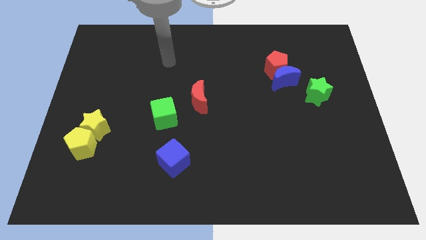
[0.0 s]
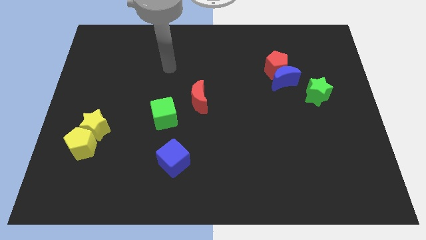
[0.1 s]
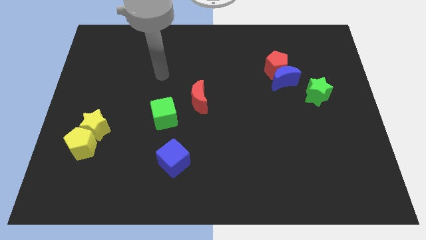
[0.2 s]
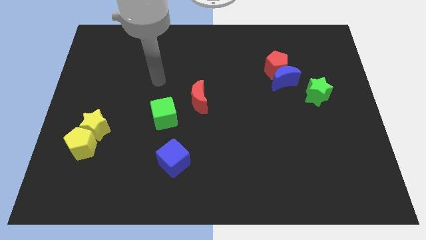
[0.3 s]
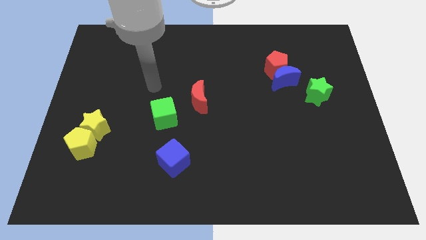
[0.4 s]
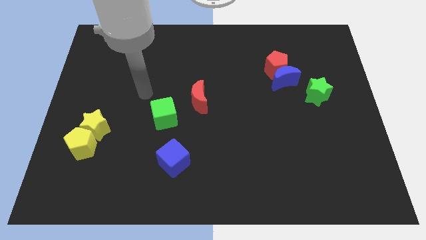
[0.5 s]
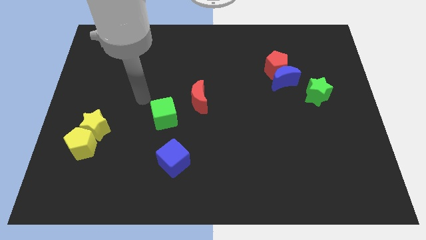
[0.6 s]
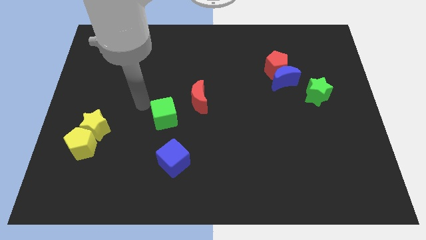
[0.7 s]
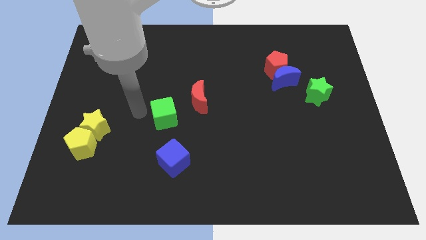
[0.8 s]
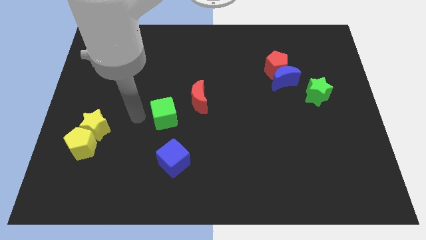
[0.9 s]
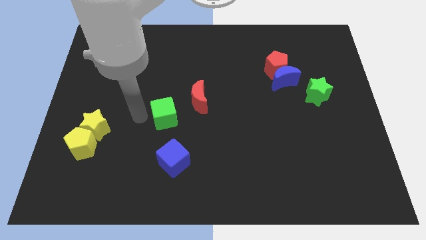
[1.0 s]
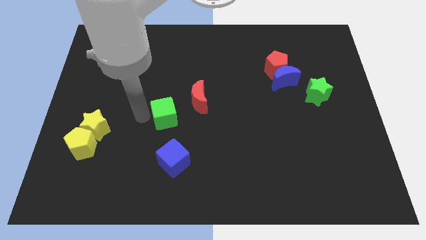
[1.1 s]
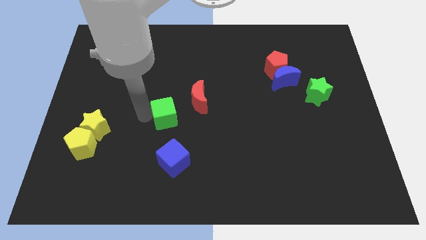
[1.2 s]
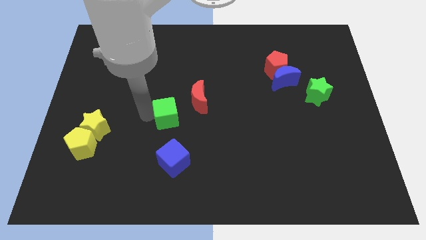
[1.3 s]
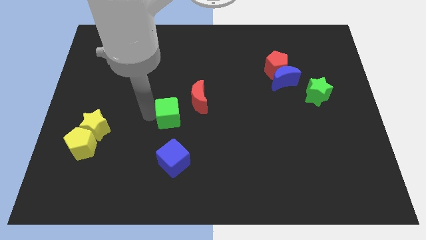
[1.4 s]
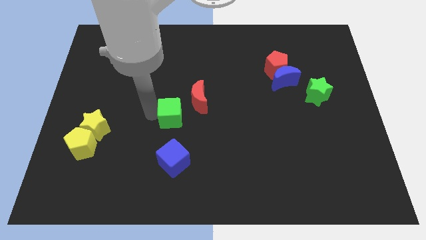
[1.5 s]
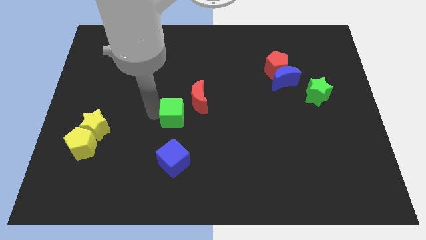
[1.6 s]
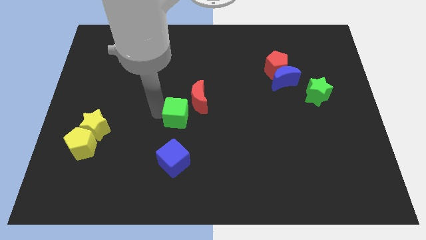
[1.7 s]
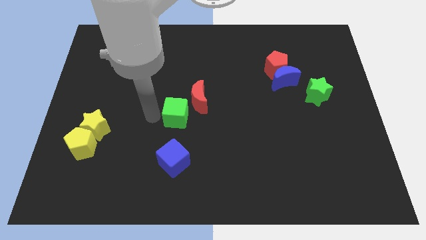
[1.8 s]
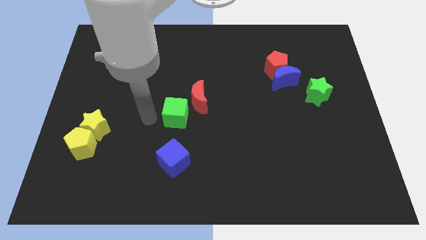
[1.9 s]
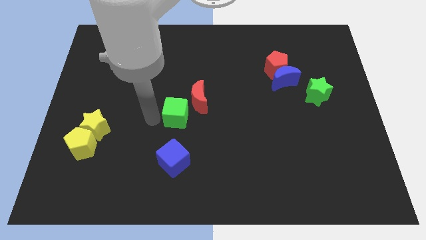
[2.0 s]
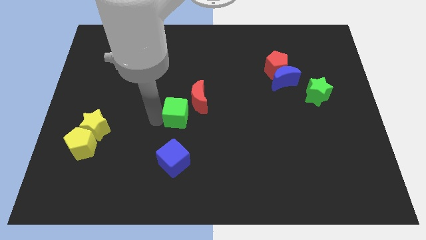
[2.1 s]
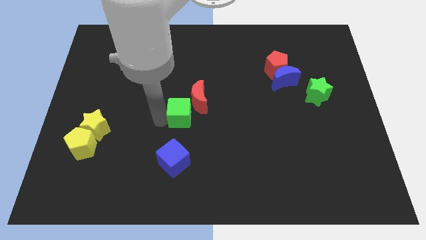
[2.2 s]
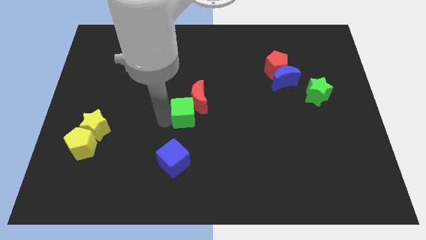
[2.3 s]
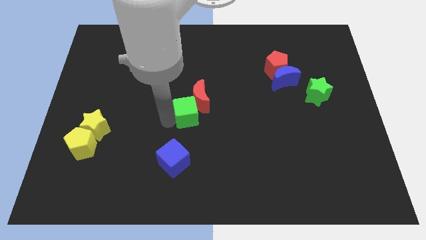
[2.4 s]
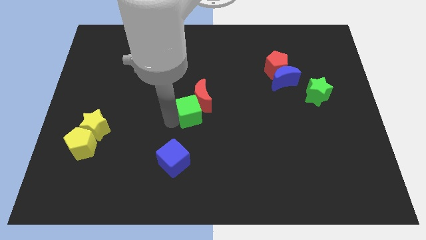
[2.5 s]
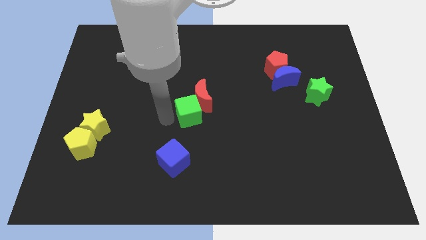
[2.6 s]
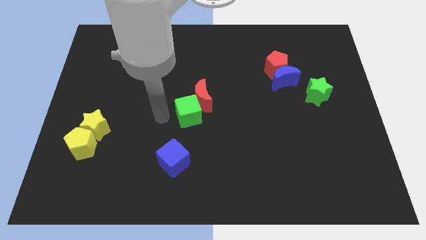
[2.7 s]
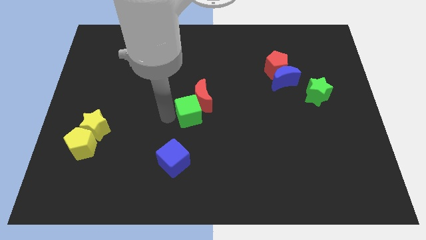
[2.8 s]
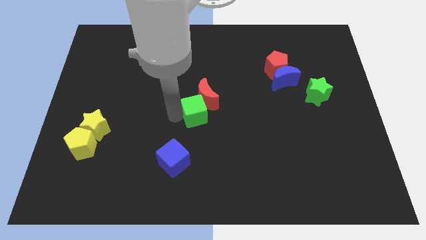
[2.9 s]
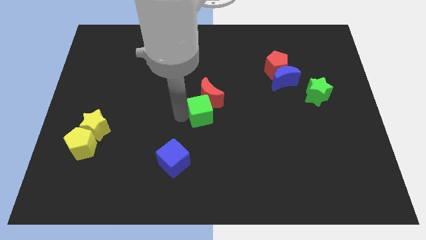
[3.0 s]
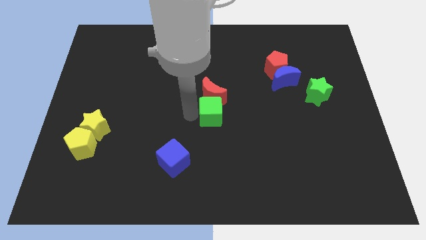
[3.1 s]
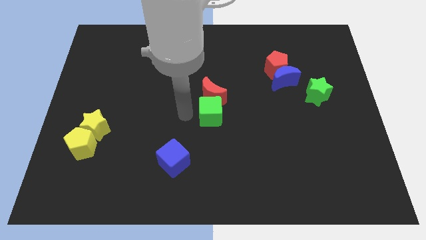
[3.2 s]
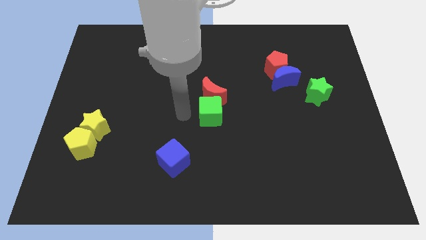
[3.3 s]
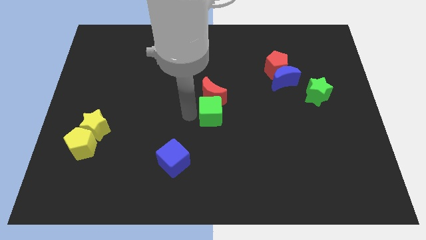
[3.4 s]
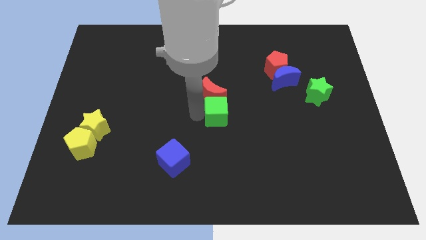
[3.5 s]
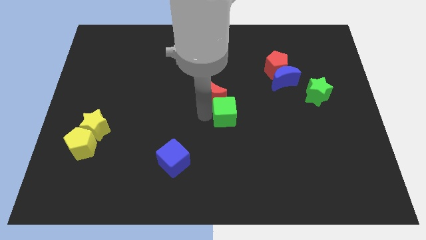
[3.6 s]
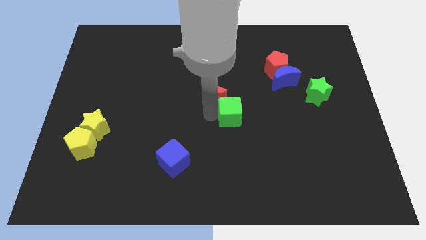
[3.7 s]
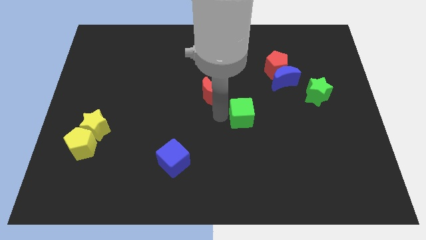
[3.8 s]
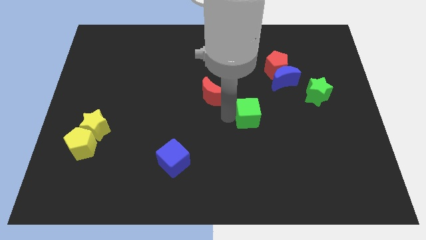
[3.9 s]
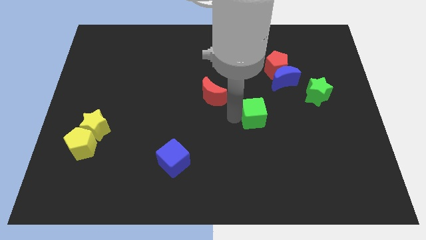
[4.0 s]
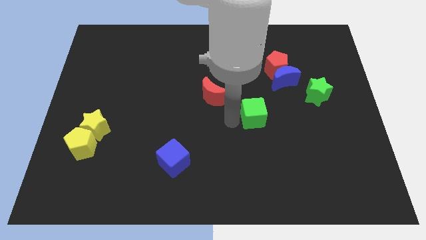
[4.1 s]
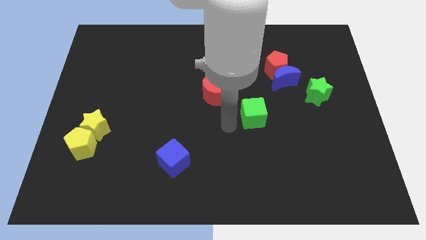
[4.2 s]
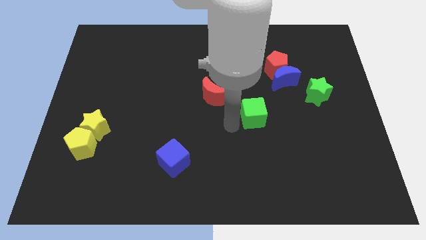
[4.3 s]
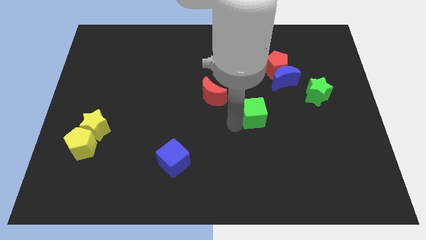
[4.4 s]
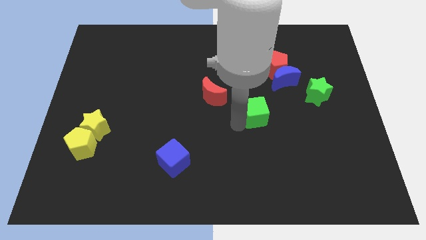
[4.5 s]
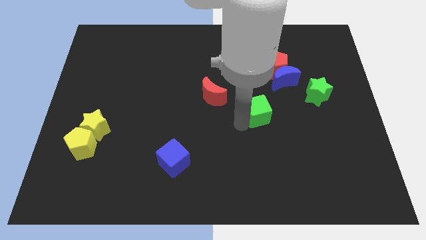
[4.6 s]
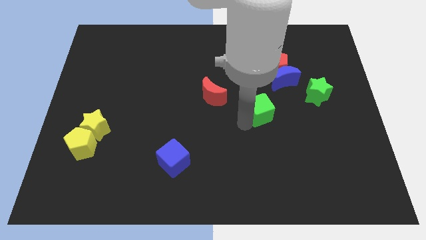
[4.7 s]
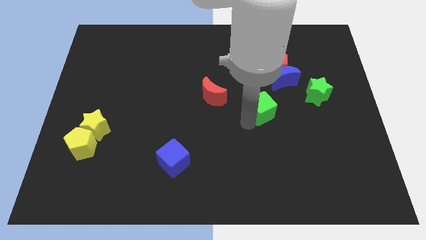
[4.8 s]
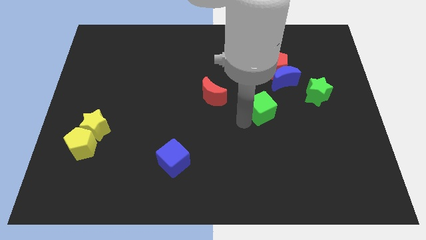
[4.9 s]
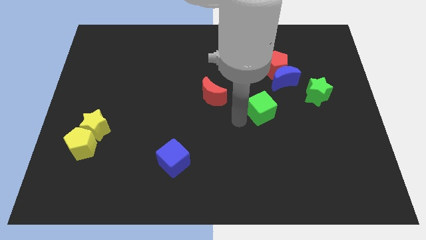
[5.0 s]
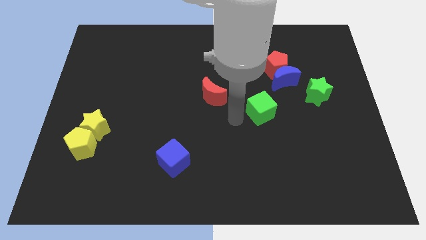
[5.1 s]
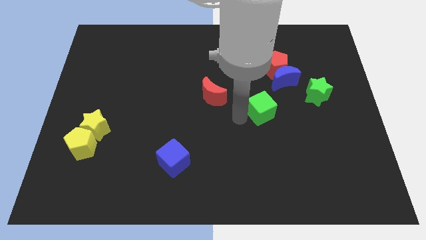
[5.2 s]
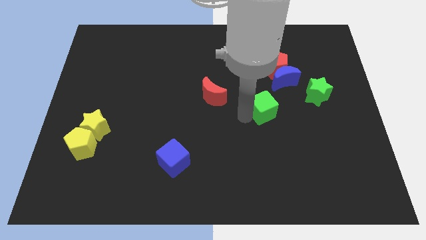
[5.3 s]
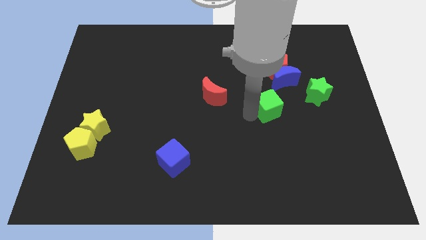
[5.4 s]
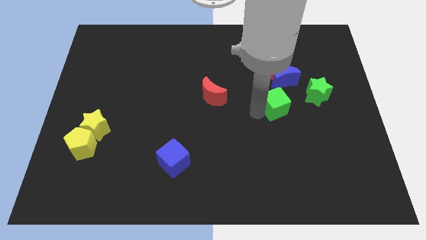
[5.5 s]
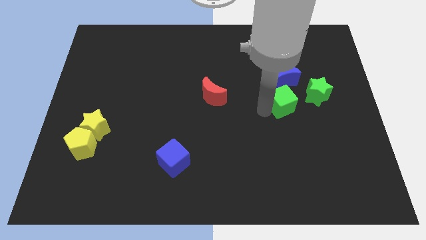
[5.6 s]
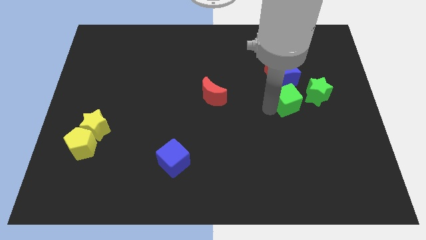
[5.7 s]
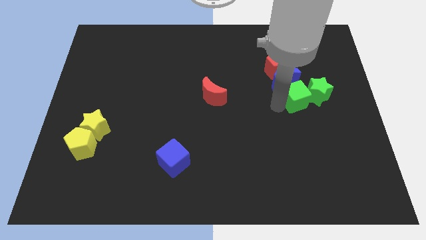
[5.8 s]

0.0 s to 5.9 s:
put the green cube to the green star

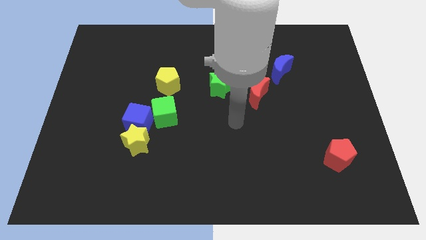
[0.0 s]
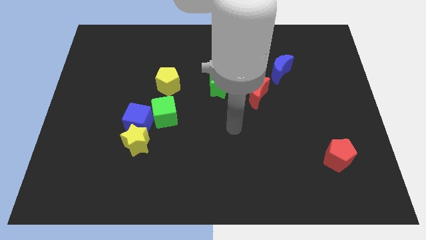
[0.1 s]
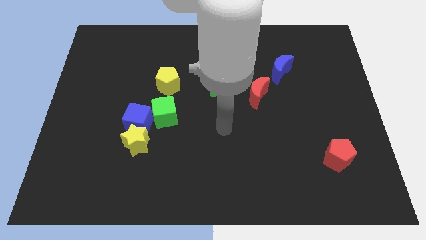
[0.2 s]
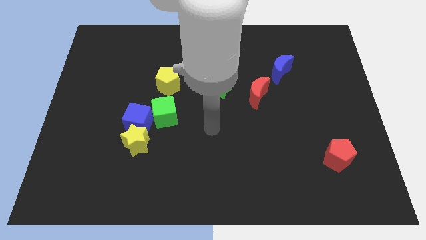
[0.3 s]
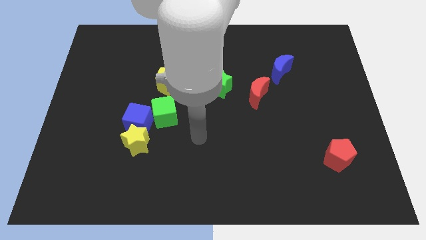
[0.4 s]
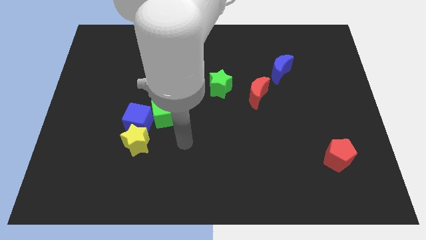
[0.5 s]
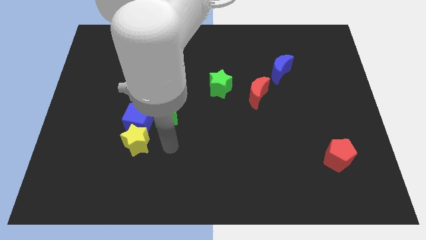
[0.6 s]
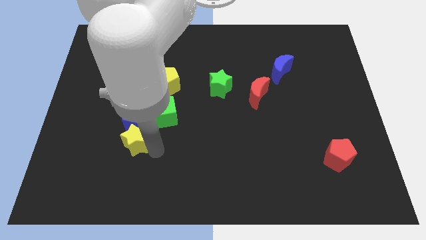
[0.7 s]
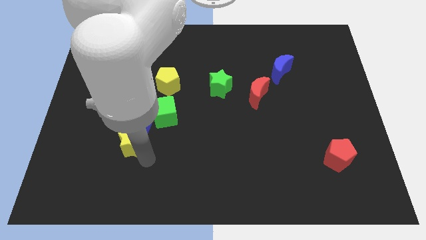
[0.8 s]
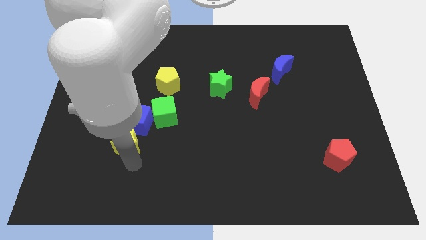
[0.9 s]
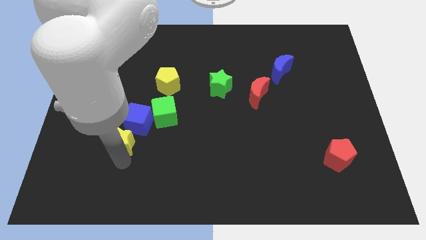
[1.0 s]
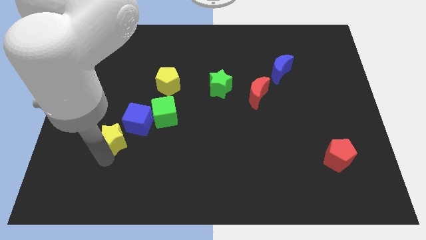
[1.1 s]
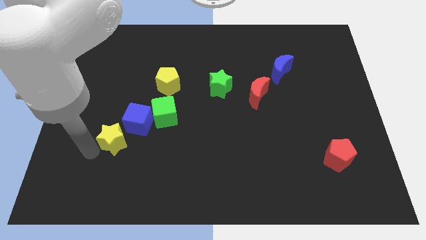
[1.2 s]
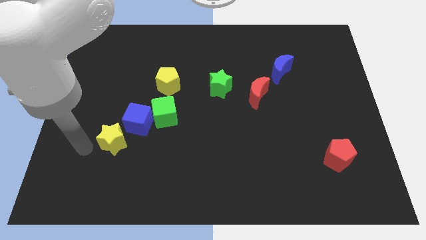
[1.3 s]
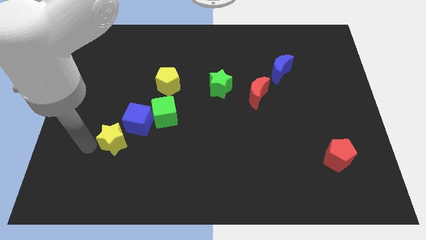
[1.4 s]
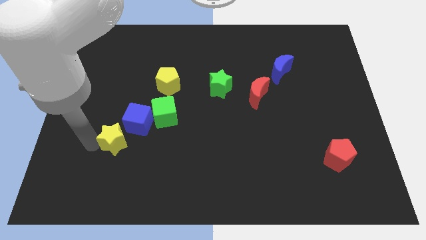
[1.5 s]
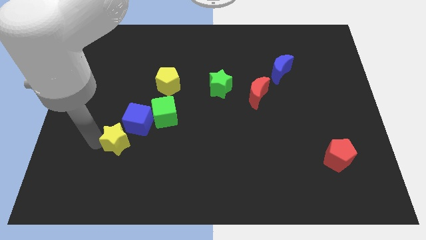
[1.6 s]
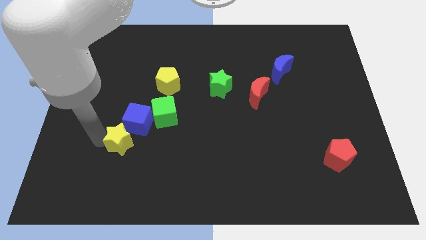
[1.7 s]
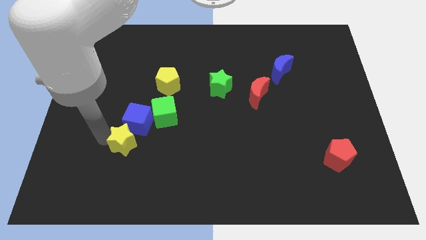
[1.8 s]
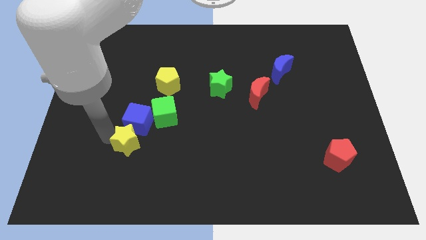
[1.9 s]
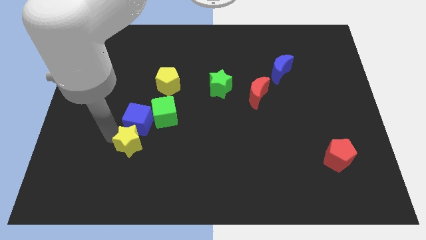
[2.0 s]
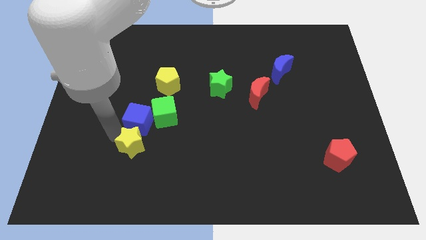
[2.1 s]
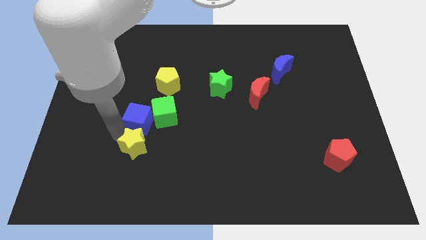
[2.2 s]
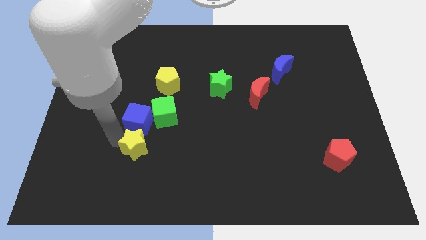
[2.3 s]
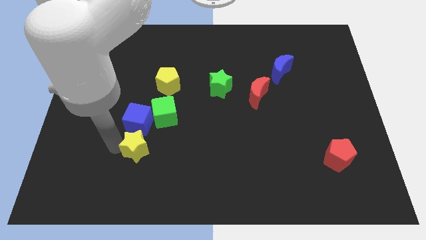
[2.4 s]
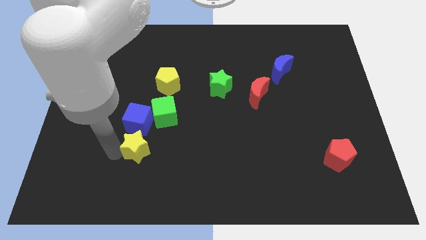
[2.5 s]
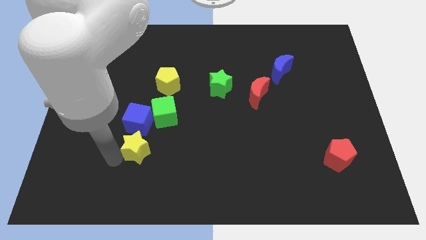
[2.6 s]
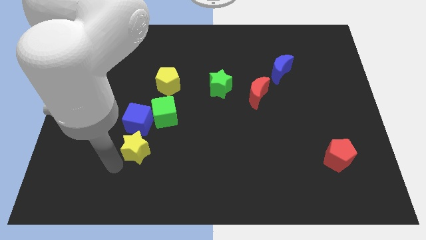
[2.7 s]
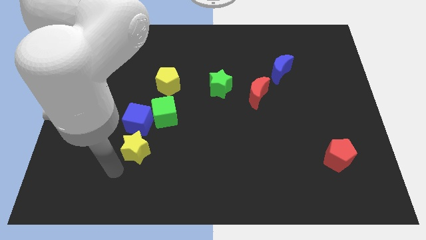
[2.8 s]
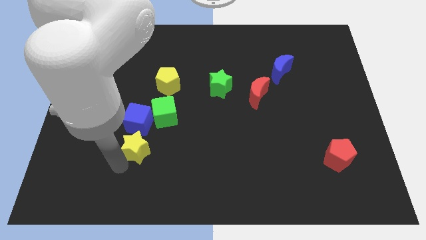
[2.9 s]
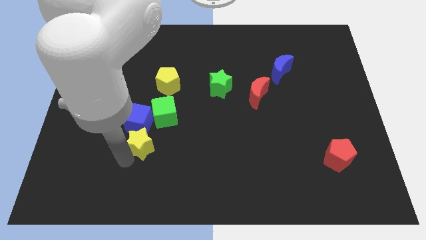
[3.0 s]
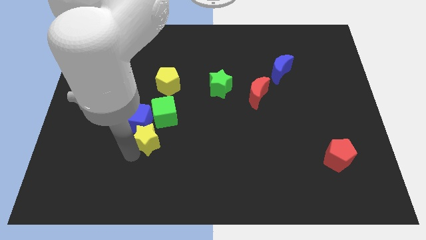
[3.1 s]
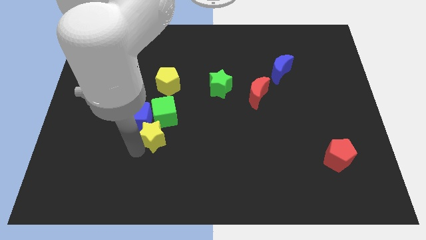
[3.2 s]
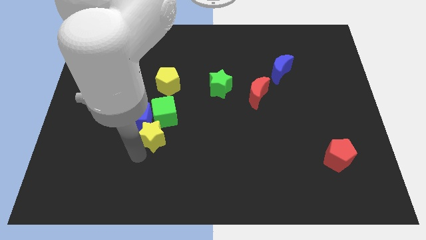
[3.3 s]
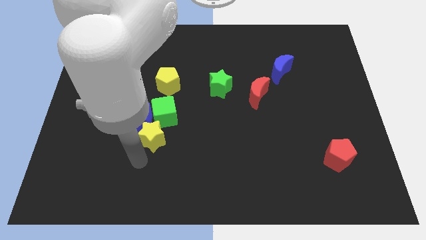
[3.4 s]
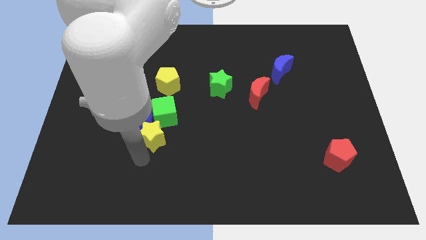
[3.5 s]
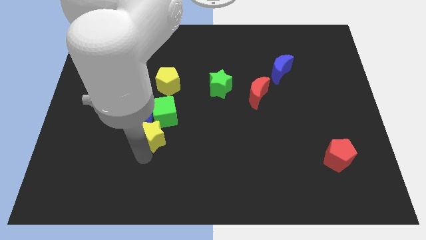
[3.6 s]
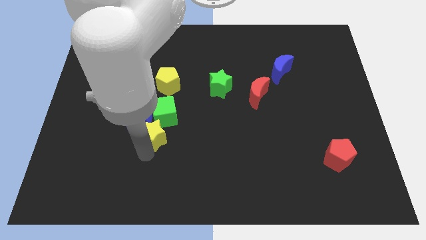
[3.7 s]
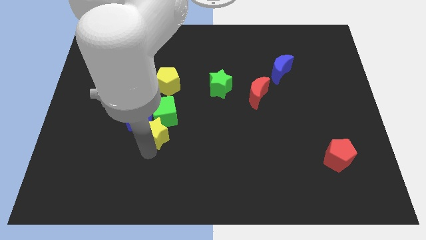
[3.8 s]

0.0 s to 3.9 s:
put the yellow star close to the green cube
